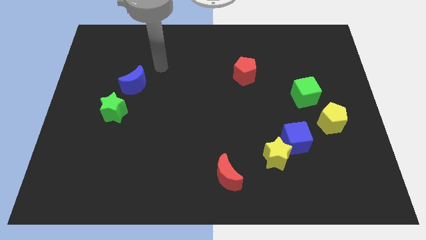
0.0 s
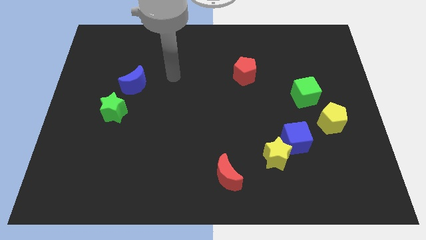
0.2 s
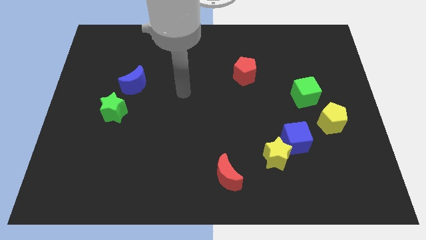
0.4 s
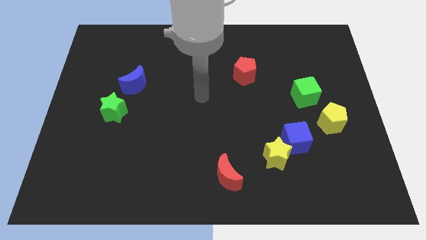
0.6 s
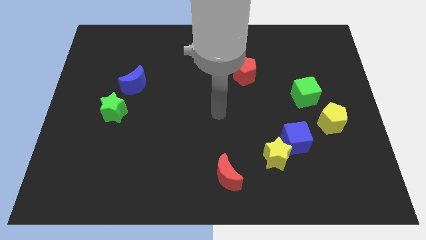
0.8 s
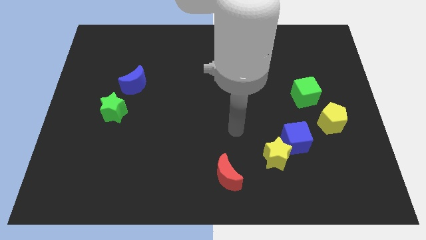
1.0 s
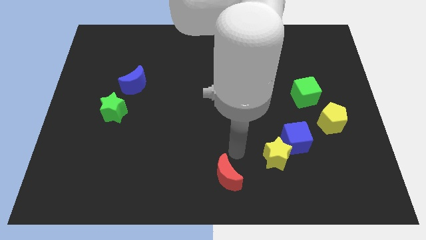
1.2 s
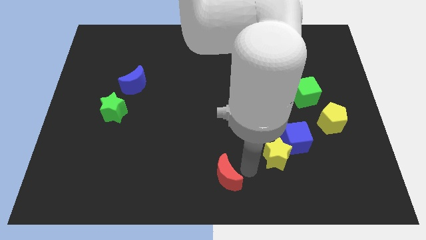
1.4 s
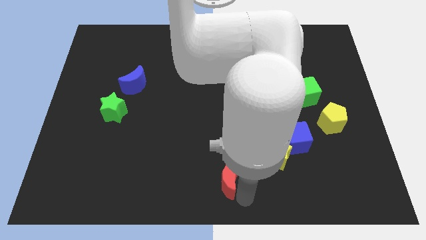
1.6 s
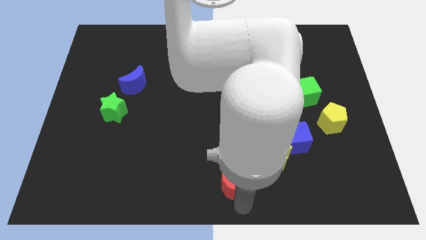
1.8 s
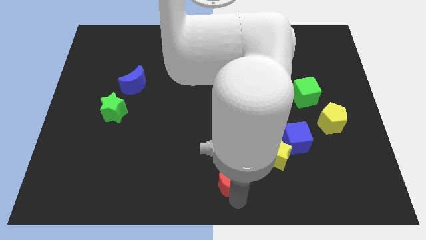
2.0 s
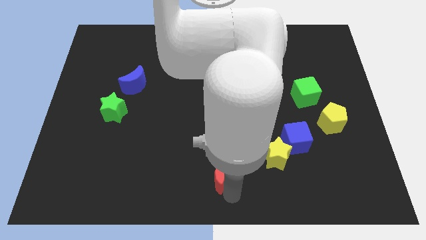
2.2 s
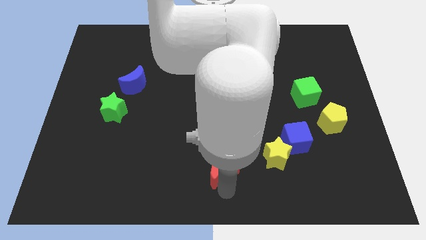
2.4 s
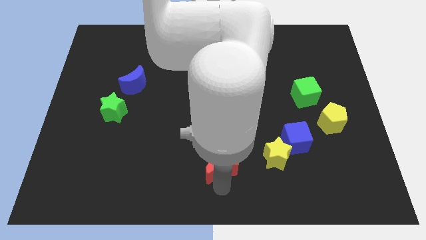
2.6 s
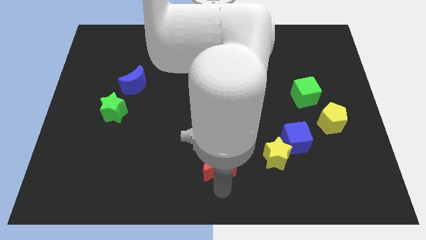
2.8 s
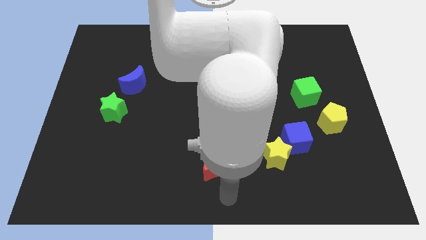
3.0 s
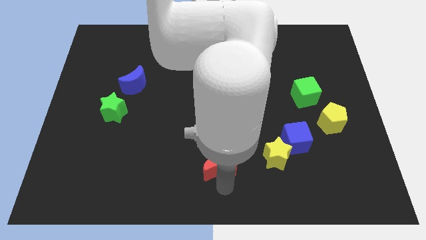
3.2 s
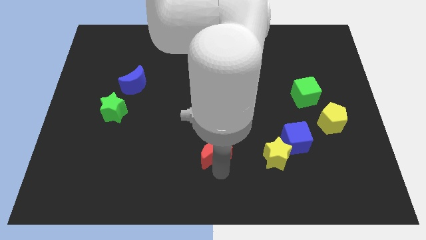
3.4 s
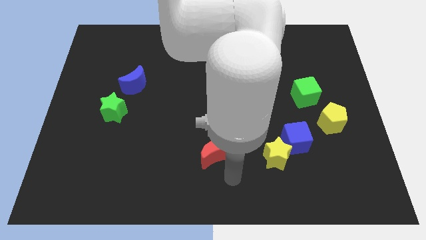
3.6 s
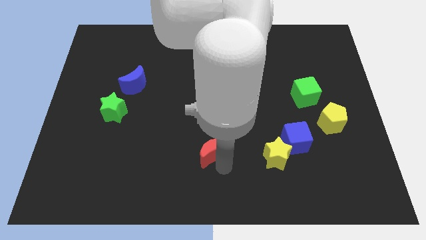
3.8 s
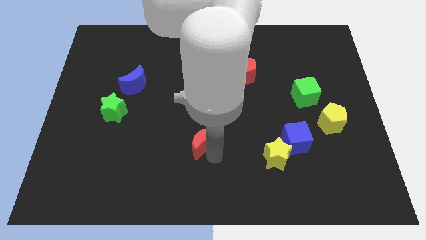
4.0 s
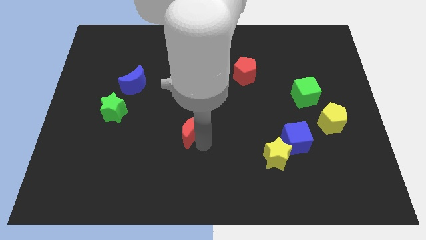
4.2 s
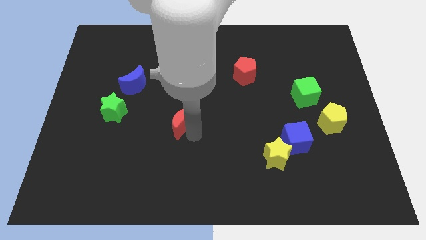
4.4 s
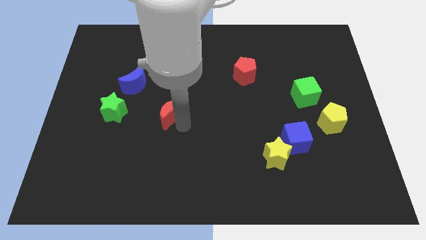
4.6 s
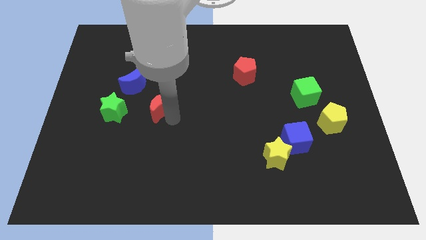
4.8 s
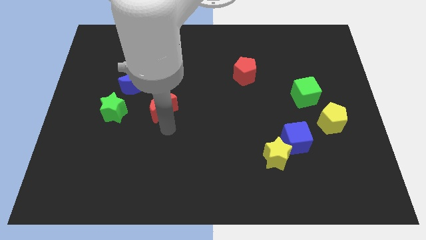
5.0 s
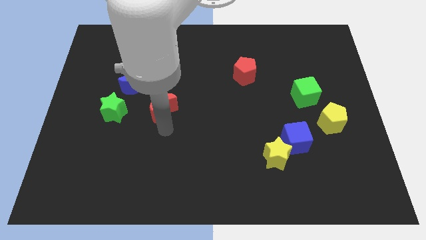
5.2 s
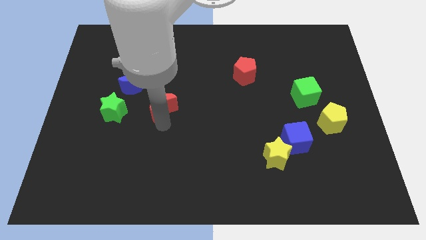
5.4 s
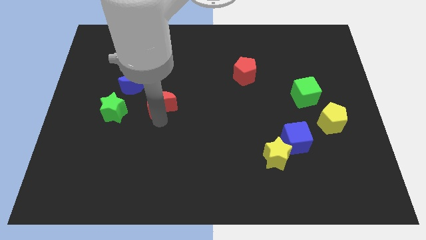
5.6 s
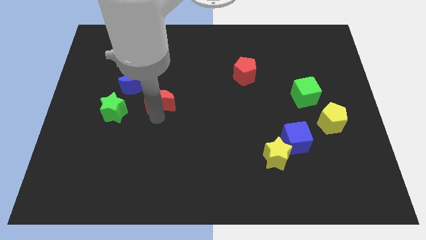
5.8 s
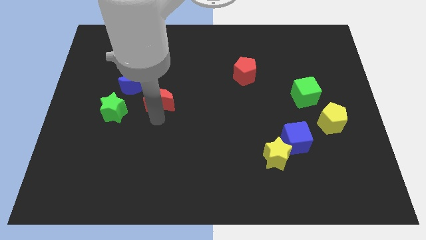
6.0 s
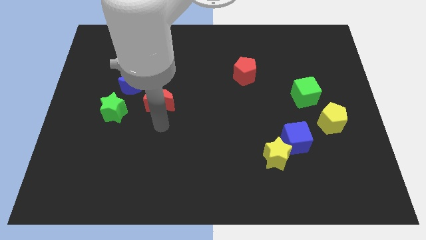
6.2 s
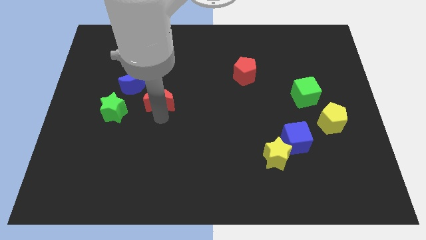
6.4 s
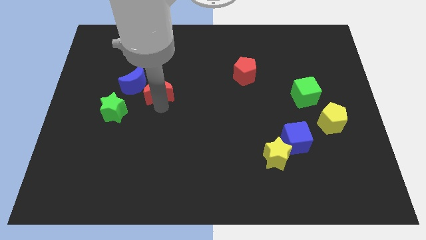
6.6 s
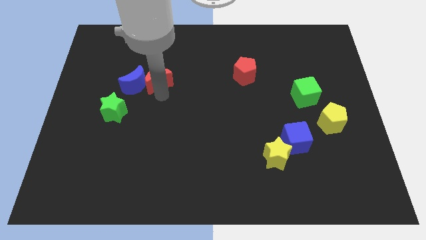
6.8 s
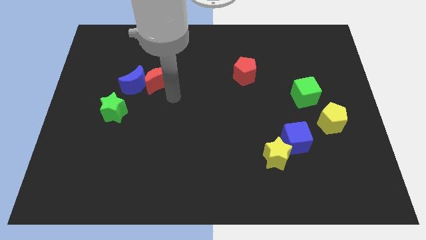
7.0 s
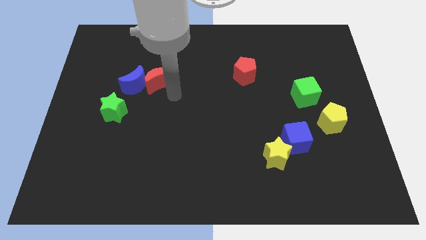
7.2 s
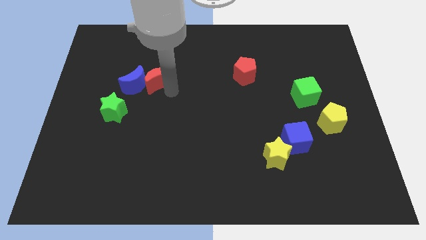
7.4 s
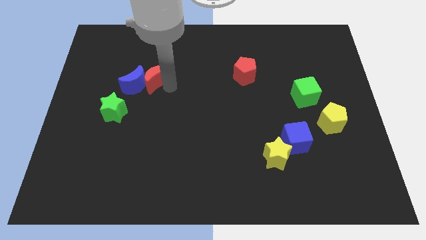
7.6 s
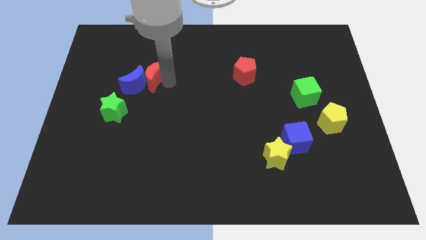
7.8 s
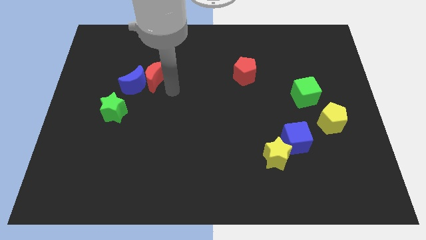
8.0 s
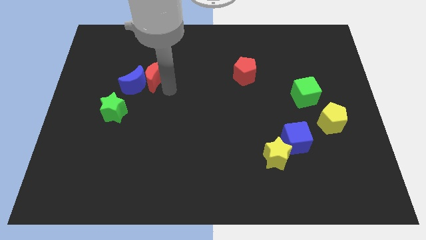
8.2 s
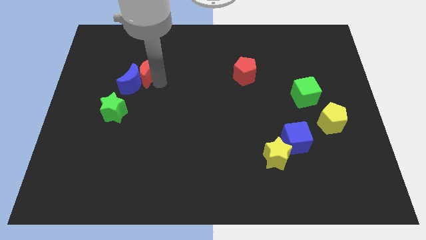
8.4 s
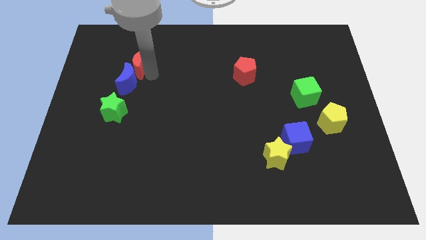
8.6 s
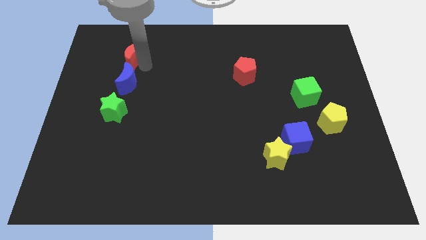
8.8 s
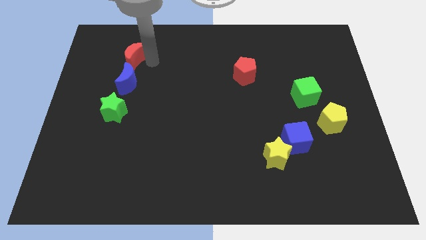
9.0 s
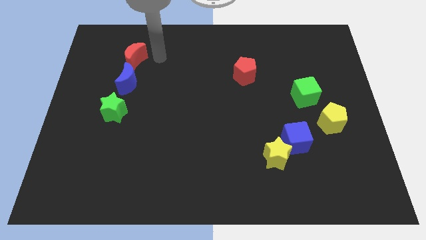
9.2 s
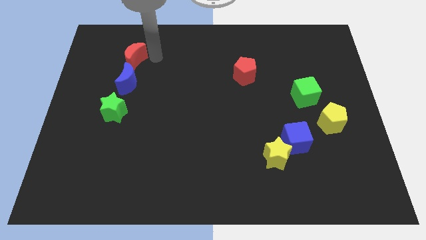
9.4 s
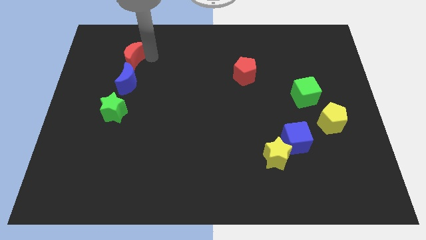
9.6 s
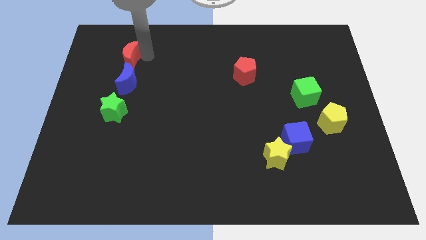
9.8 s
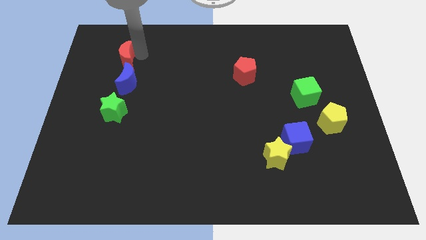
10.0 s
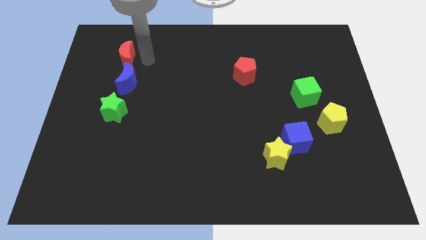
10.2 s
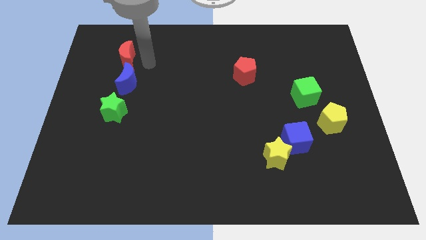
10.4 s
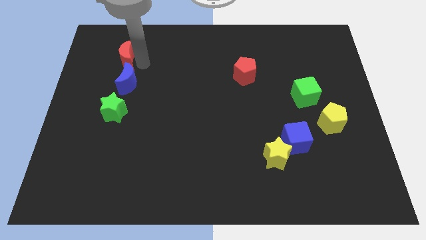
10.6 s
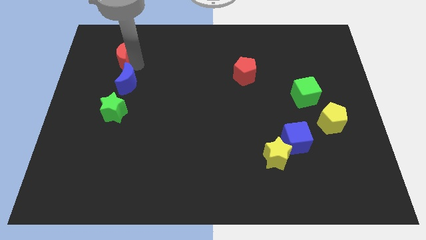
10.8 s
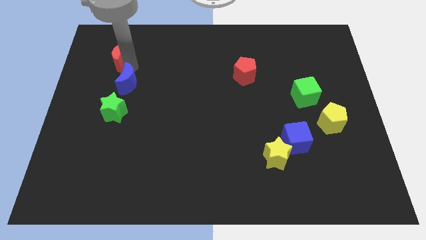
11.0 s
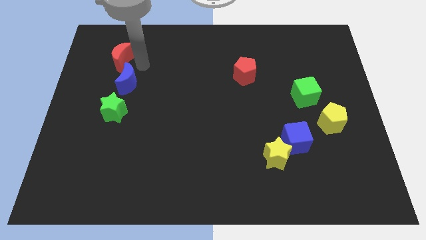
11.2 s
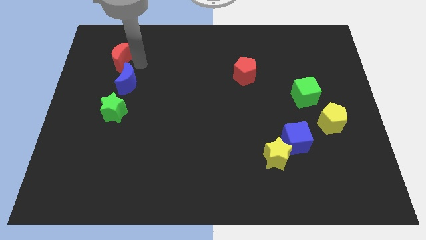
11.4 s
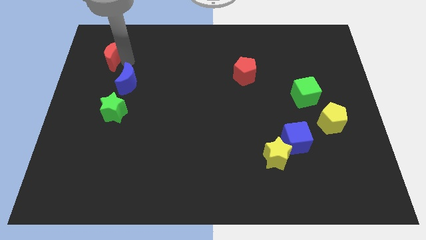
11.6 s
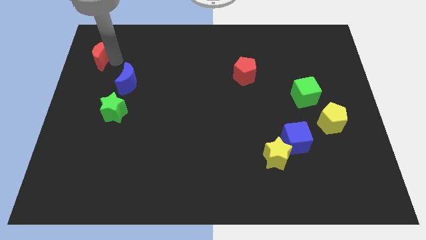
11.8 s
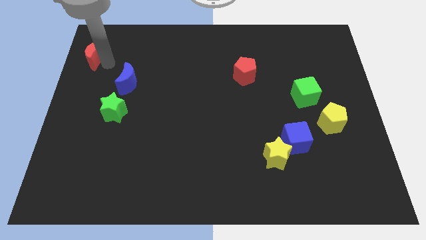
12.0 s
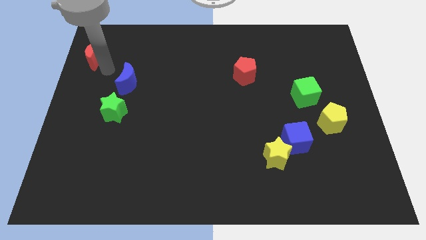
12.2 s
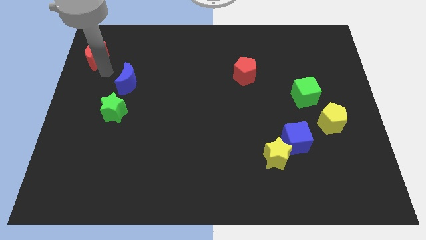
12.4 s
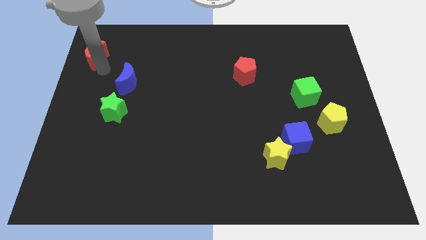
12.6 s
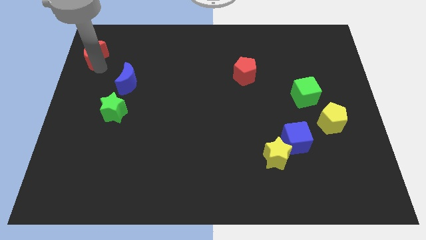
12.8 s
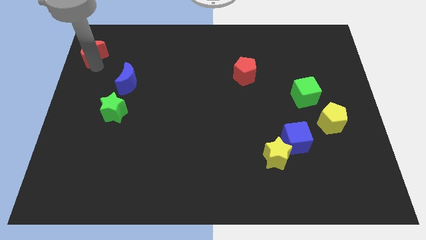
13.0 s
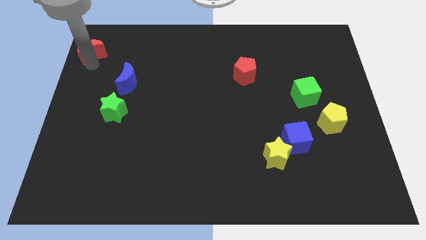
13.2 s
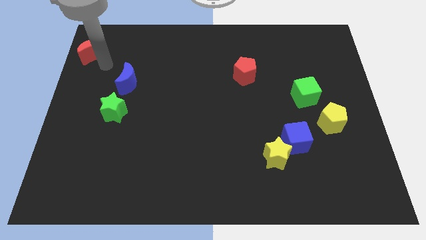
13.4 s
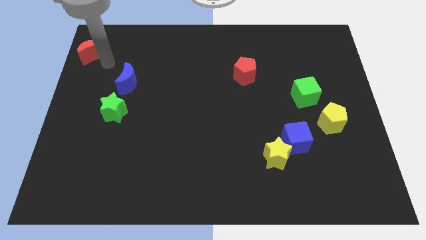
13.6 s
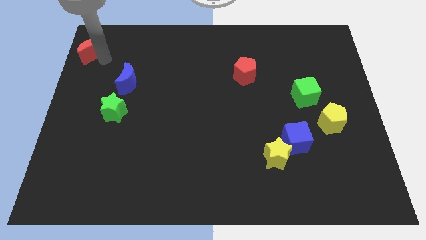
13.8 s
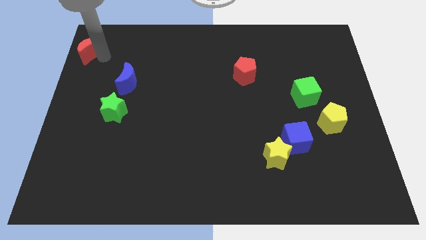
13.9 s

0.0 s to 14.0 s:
move the red moon to the top left corner
